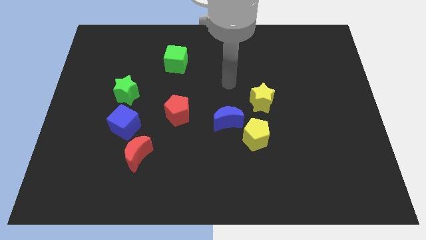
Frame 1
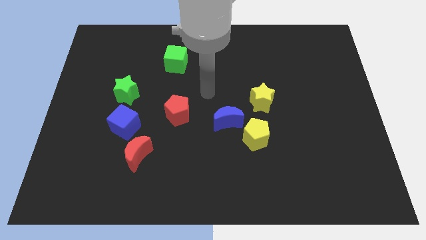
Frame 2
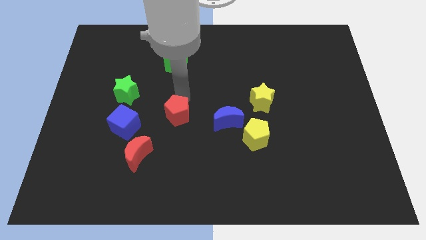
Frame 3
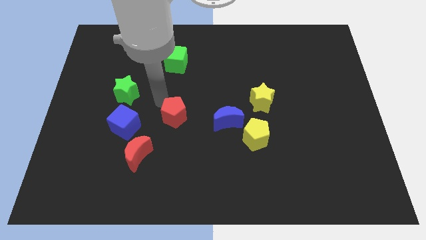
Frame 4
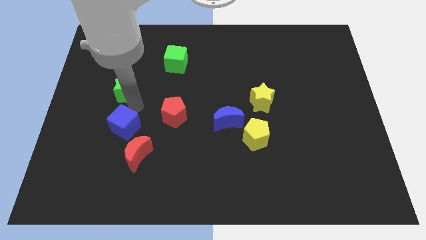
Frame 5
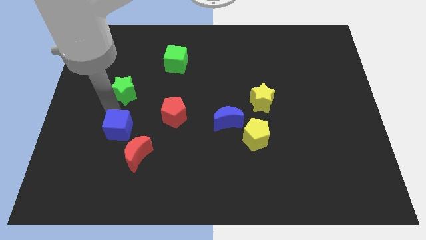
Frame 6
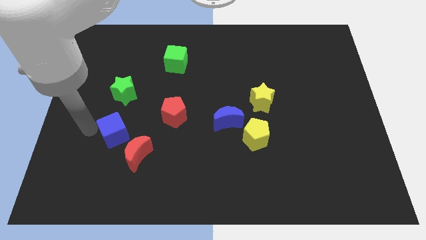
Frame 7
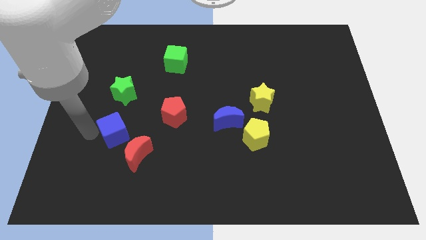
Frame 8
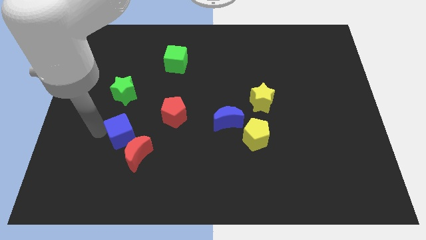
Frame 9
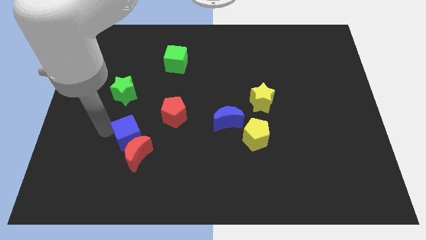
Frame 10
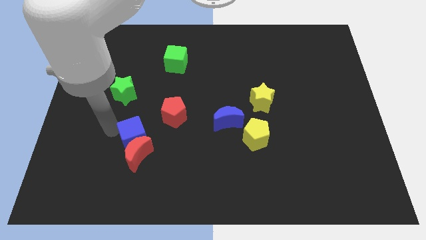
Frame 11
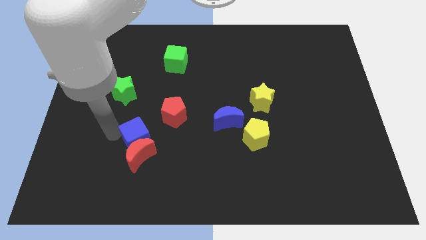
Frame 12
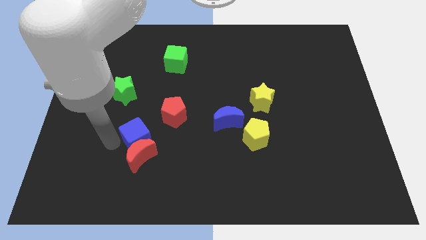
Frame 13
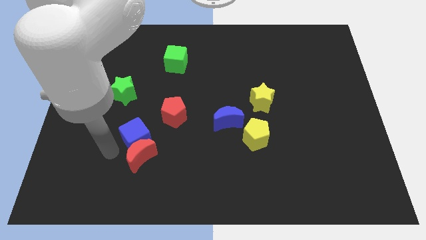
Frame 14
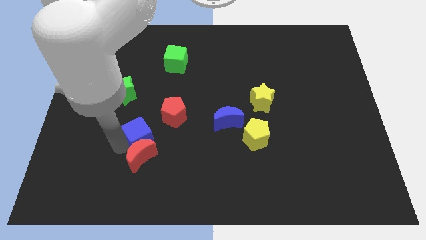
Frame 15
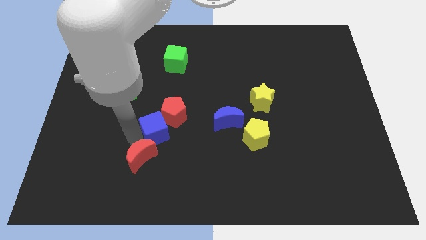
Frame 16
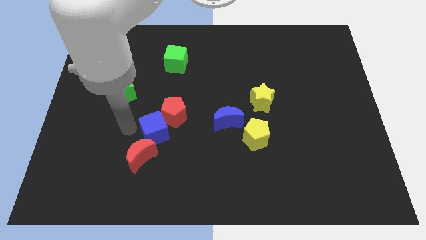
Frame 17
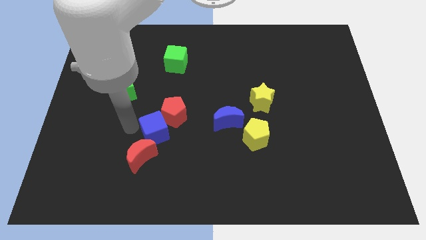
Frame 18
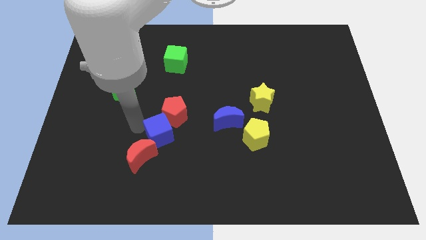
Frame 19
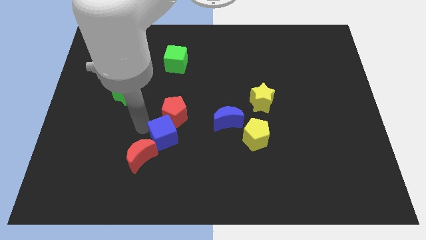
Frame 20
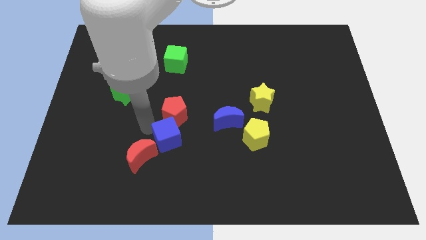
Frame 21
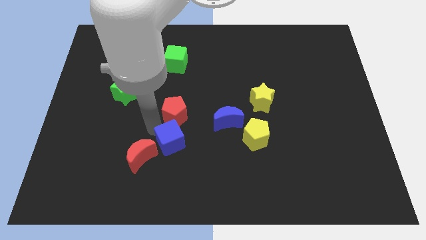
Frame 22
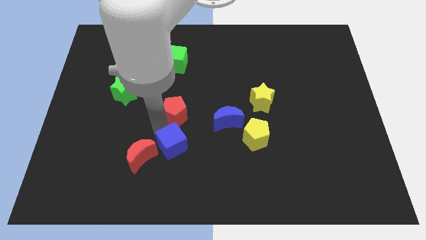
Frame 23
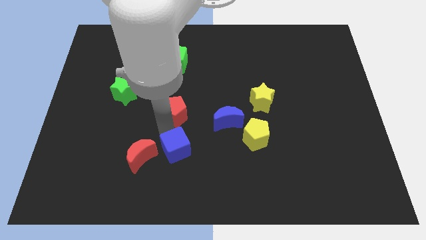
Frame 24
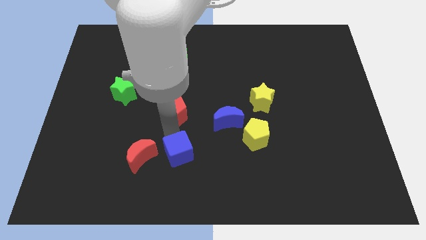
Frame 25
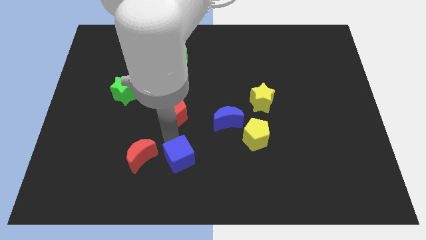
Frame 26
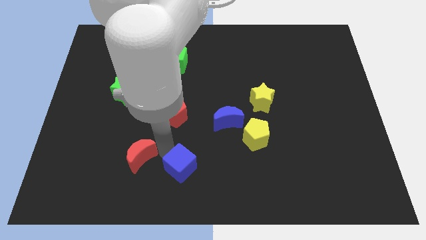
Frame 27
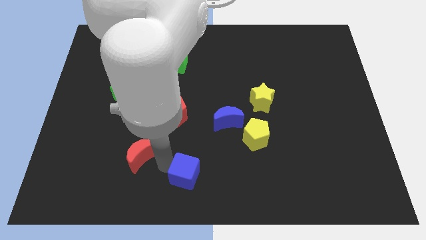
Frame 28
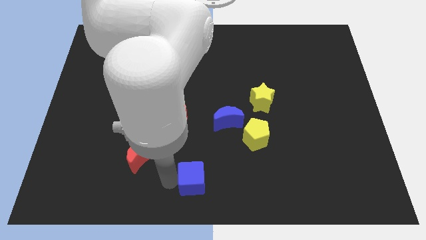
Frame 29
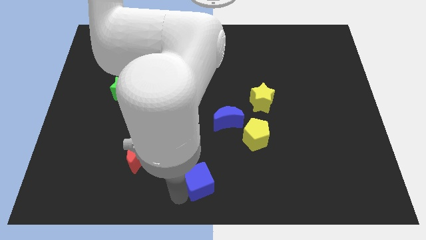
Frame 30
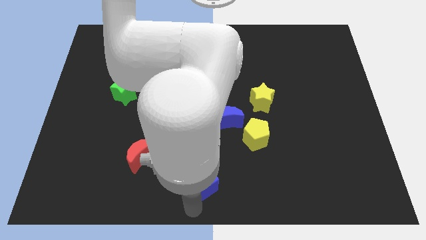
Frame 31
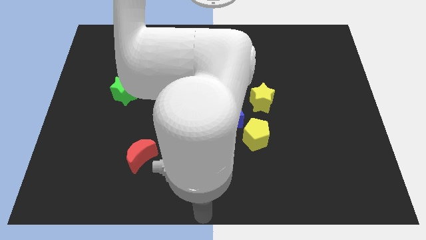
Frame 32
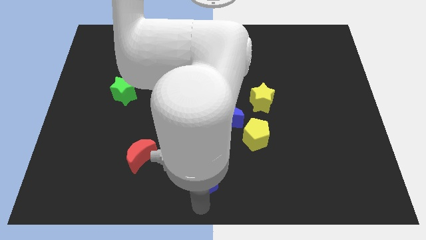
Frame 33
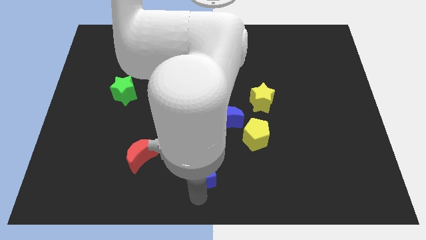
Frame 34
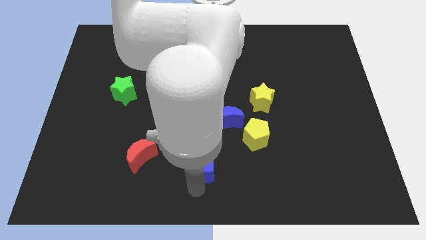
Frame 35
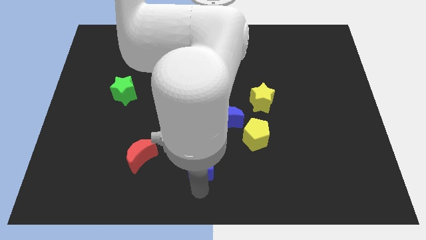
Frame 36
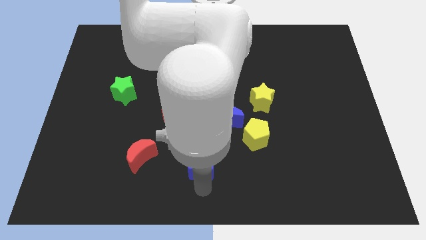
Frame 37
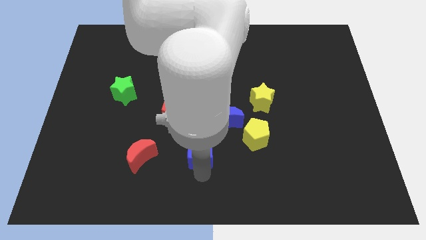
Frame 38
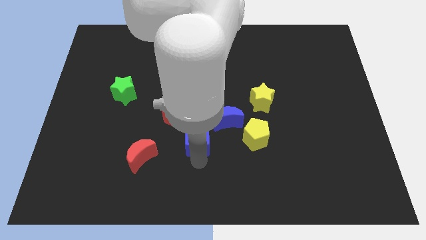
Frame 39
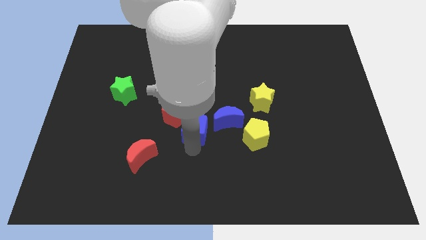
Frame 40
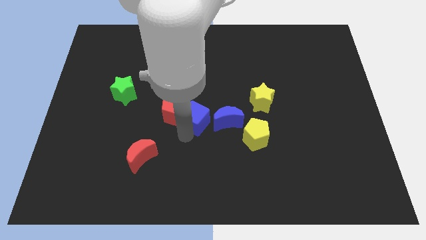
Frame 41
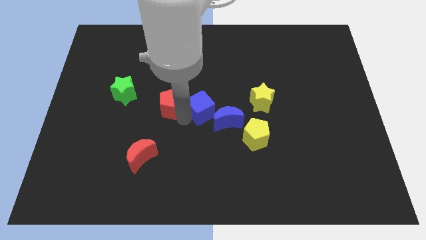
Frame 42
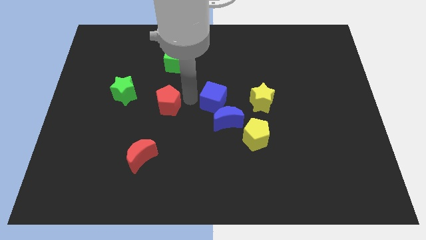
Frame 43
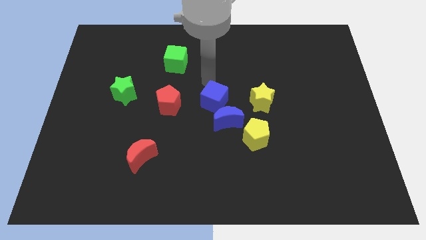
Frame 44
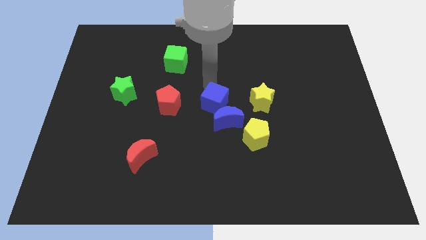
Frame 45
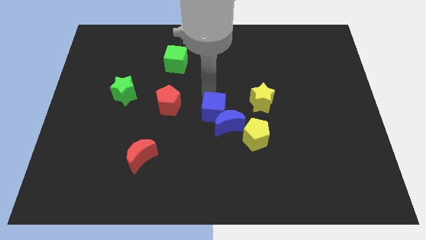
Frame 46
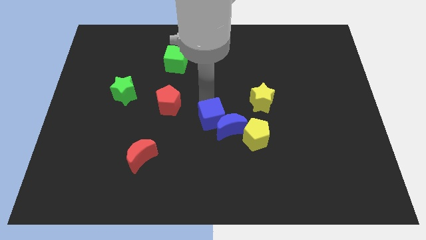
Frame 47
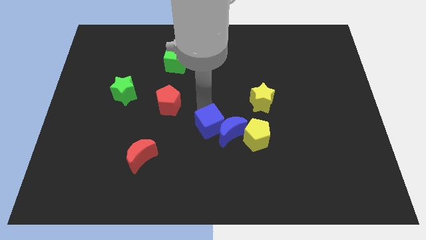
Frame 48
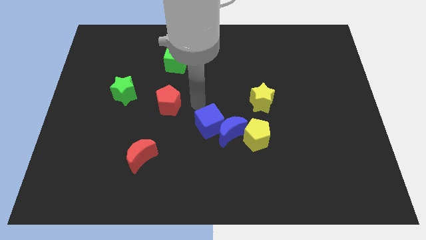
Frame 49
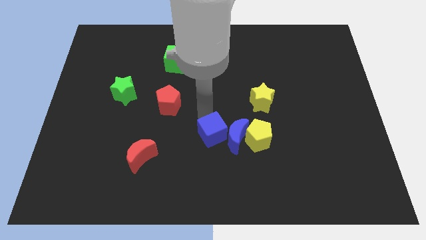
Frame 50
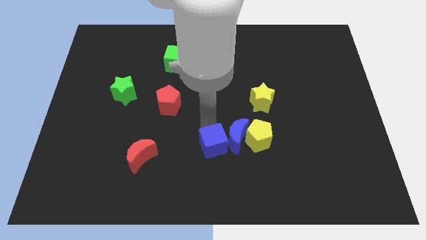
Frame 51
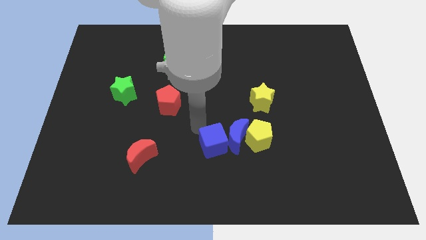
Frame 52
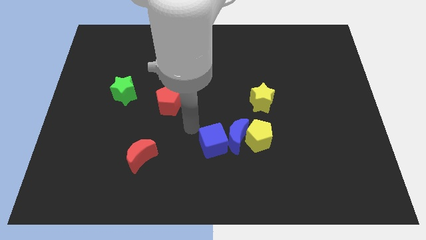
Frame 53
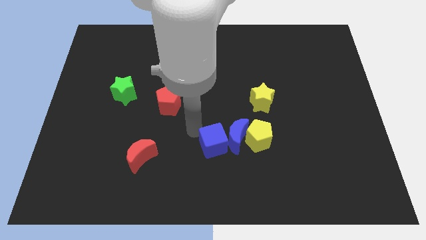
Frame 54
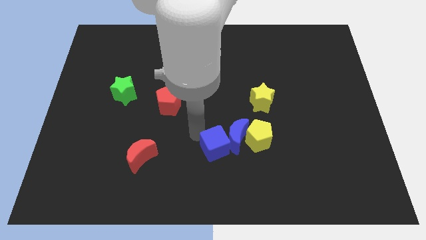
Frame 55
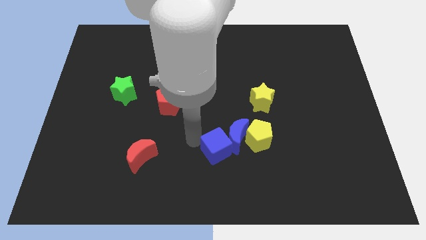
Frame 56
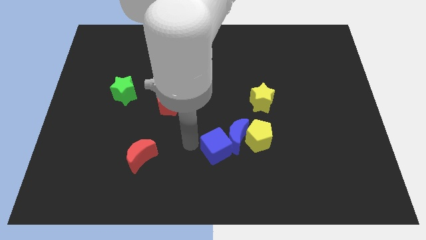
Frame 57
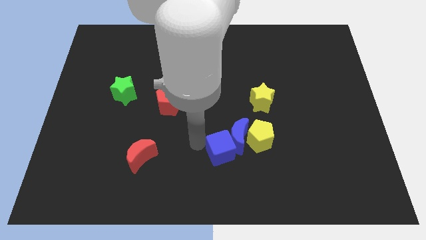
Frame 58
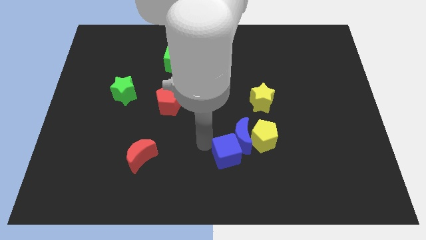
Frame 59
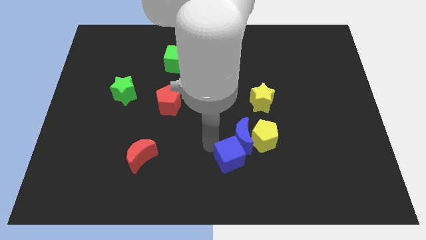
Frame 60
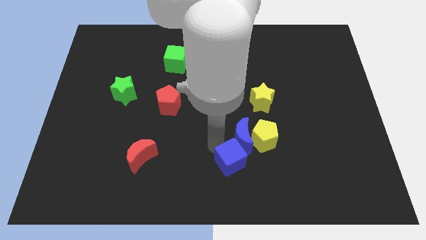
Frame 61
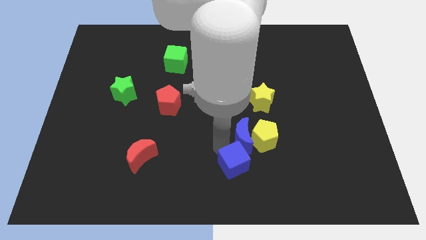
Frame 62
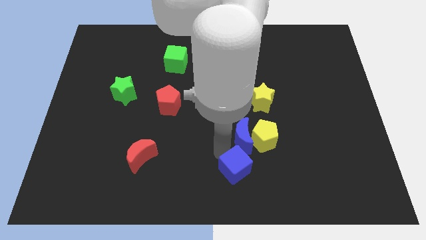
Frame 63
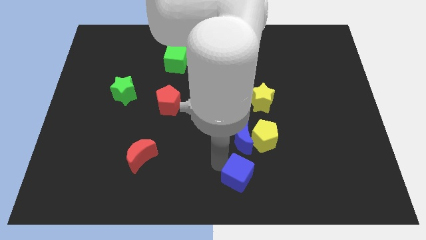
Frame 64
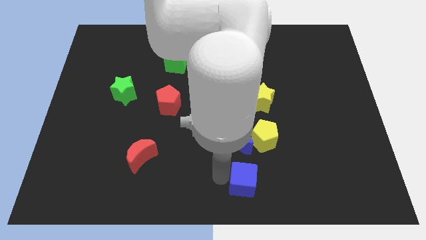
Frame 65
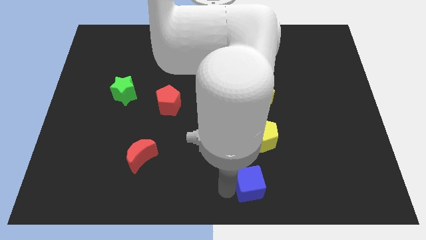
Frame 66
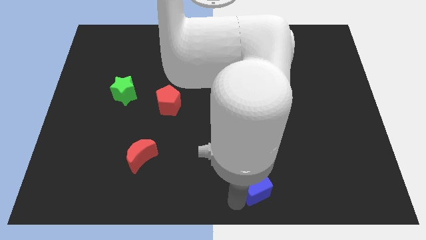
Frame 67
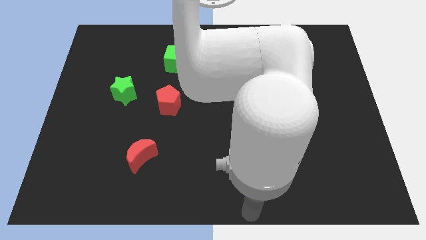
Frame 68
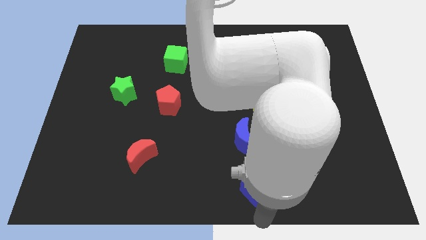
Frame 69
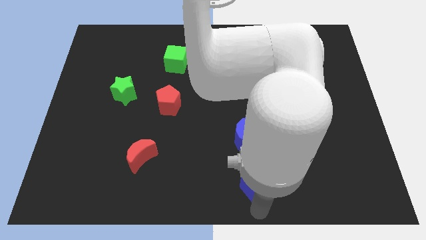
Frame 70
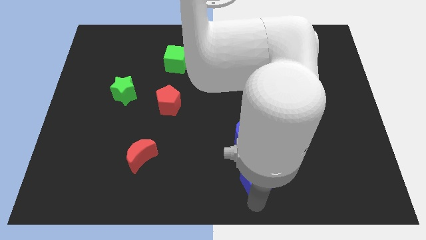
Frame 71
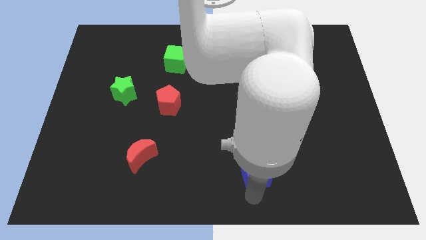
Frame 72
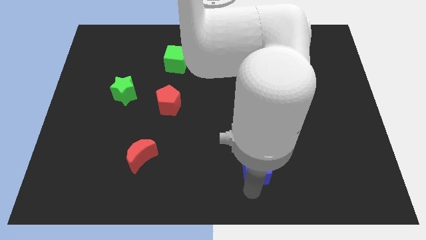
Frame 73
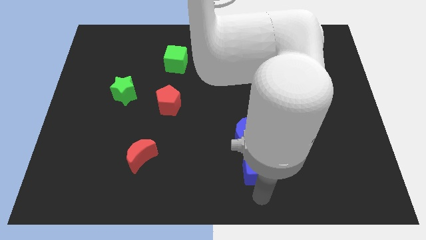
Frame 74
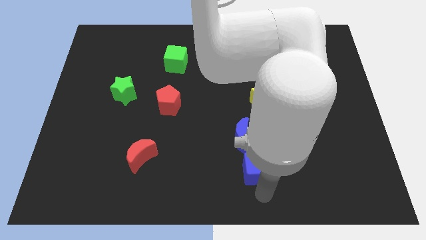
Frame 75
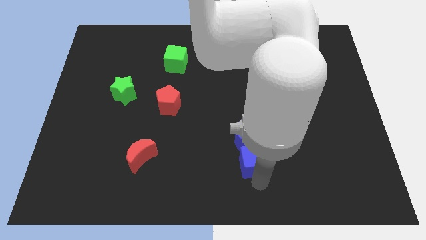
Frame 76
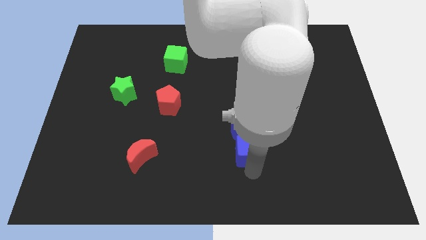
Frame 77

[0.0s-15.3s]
move the blue cube to the bottom of the yellow star
